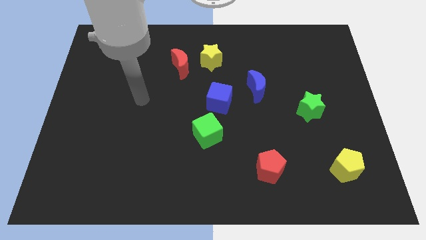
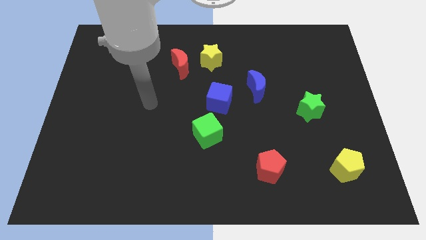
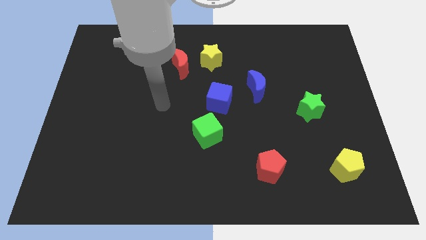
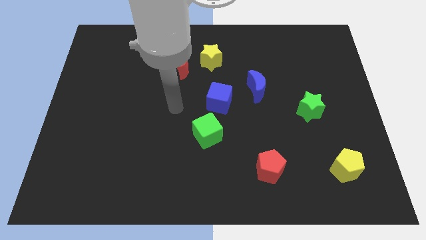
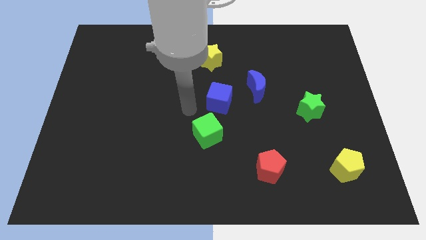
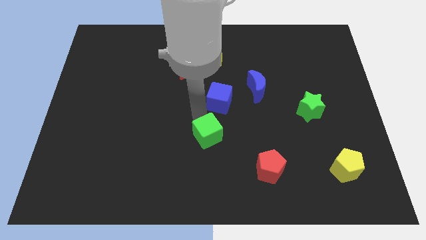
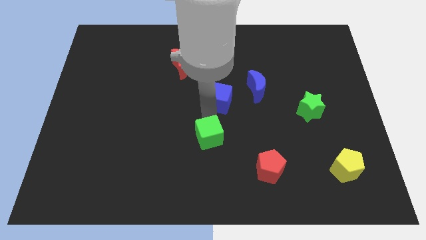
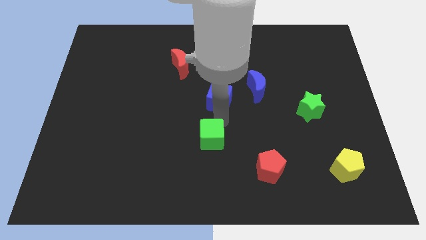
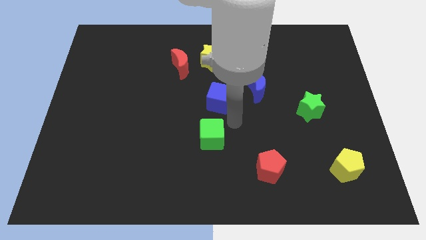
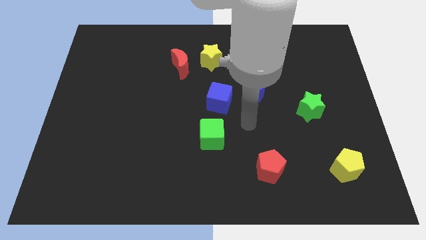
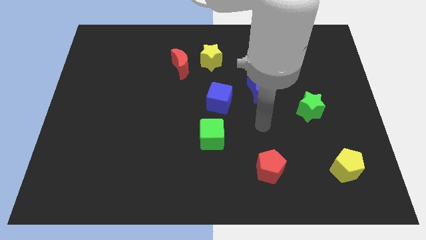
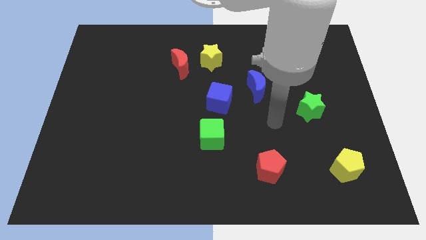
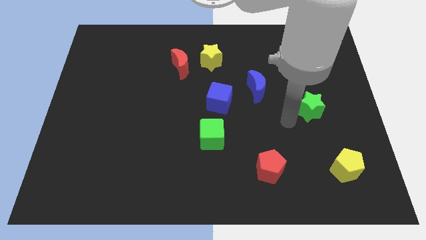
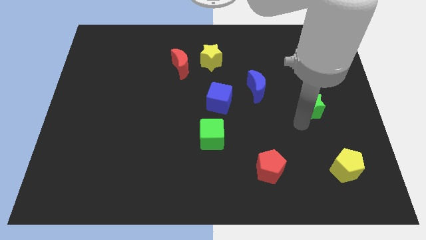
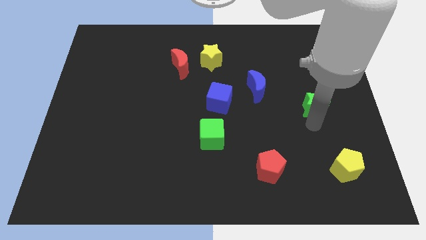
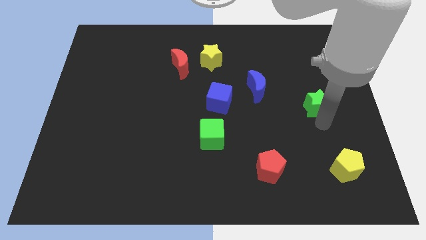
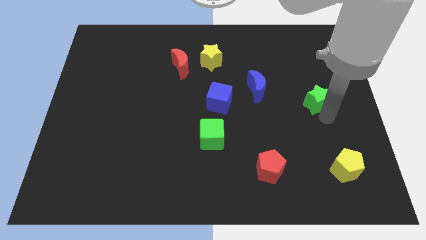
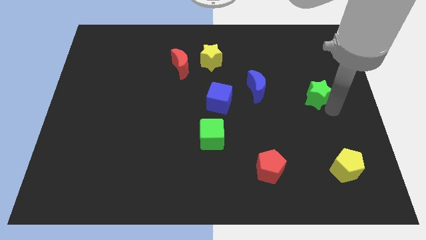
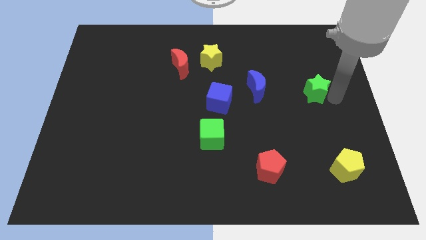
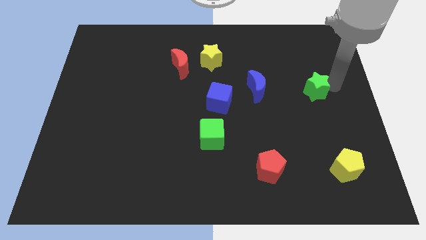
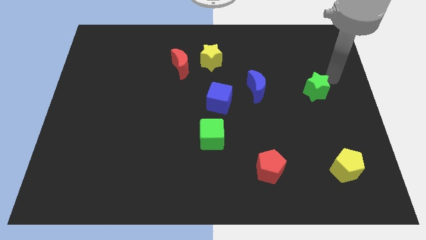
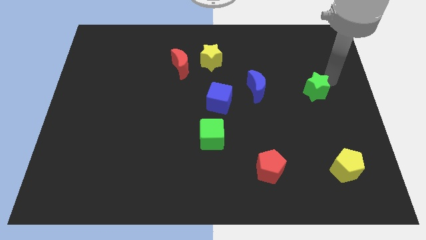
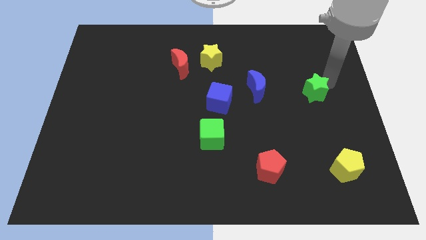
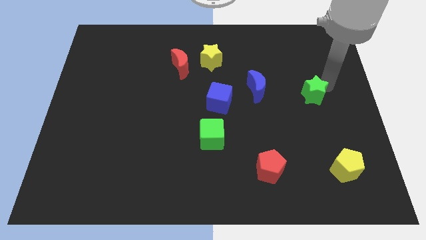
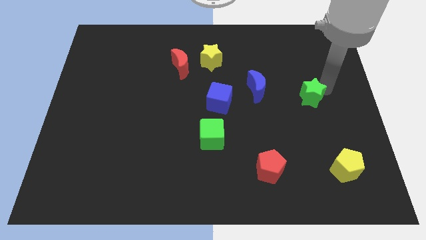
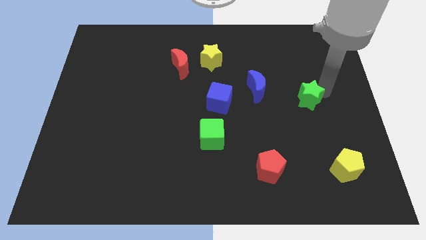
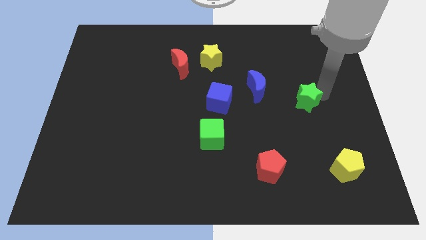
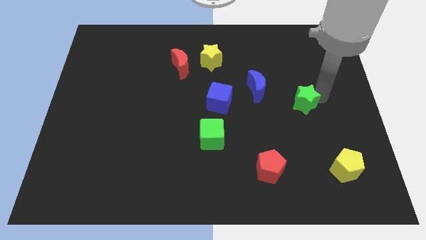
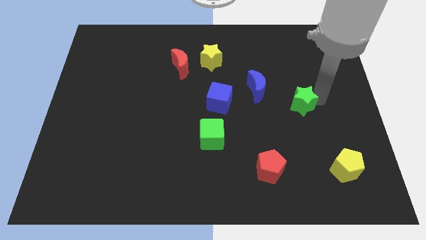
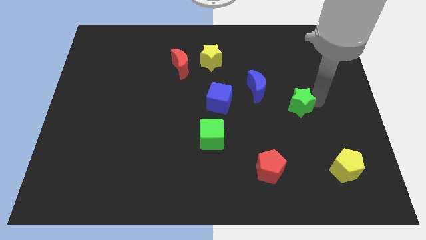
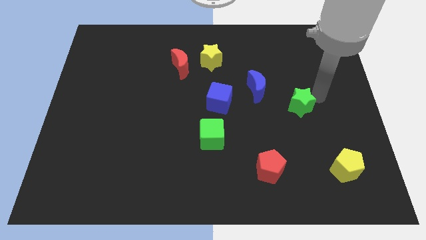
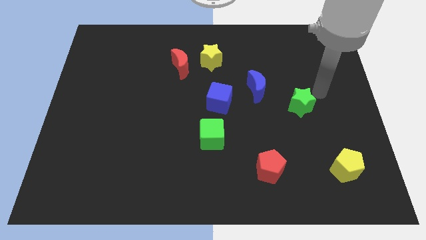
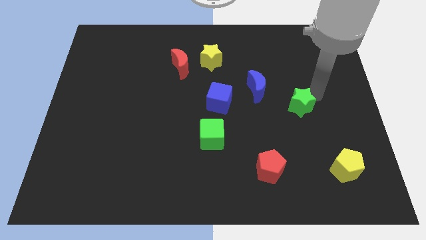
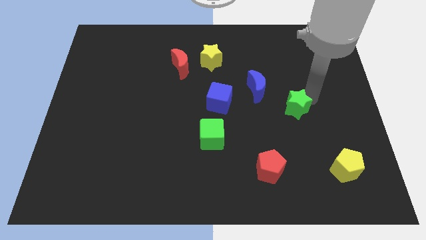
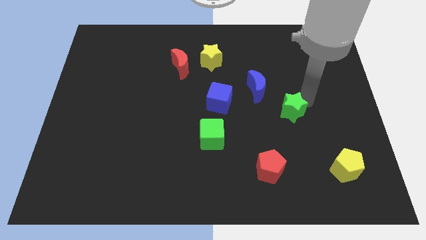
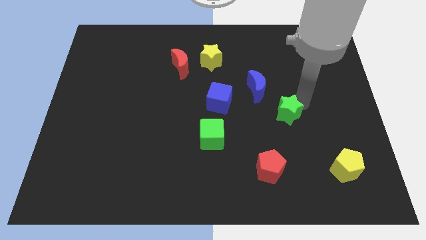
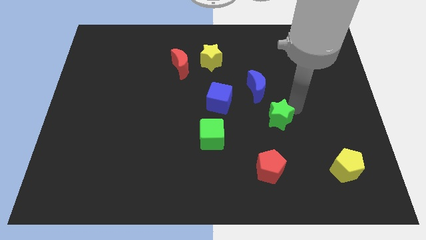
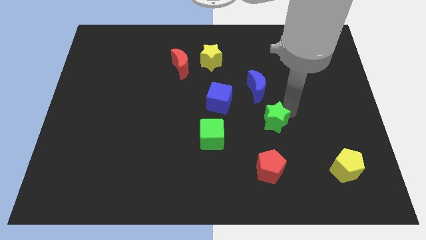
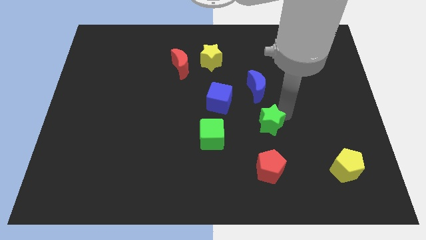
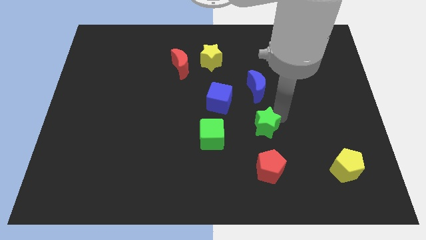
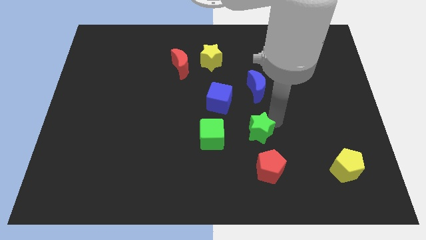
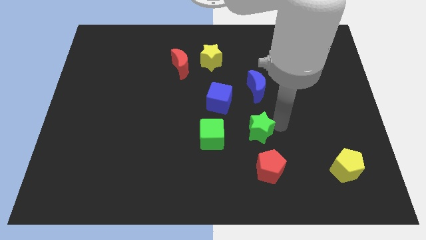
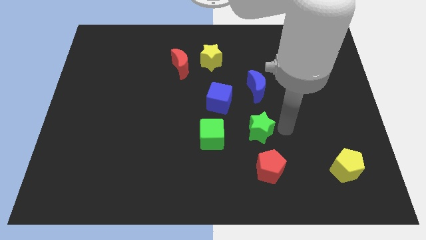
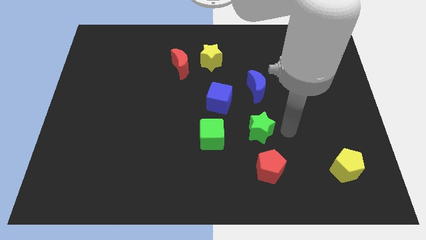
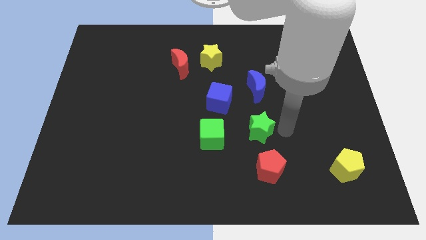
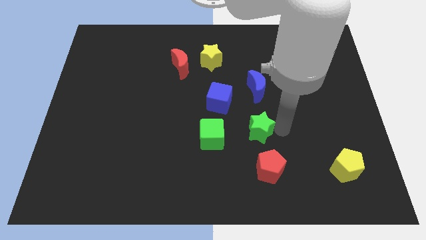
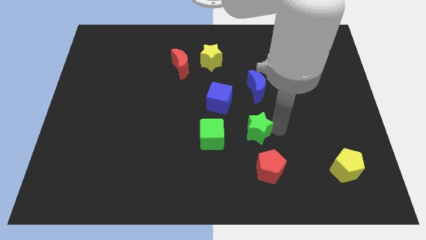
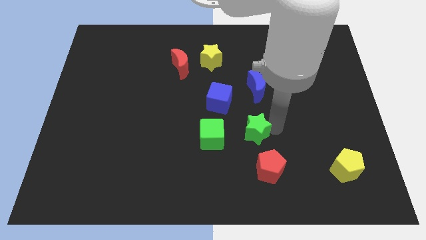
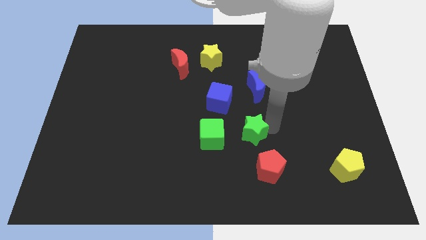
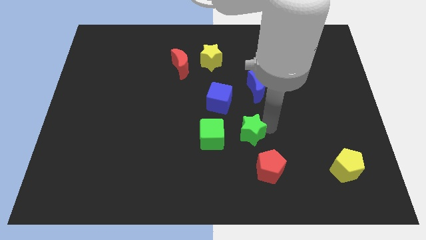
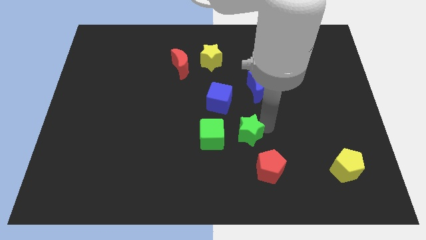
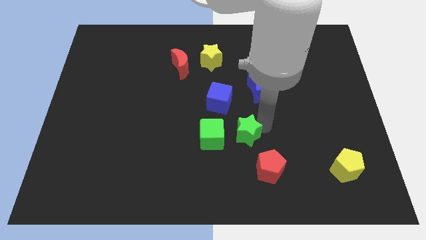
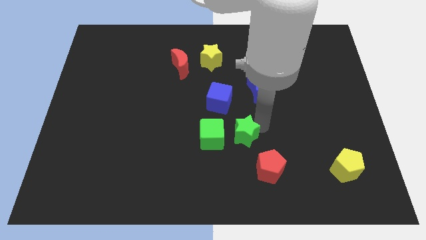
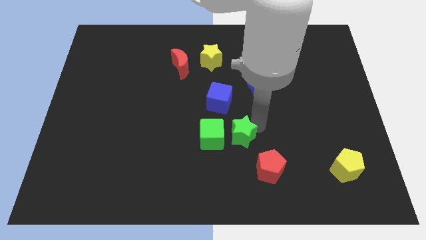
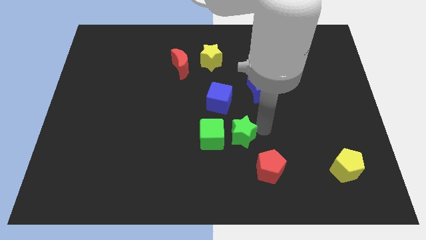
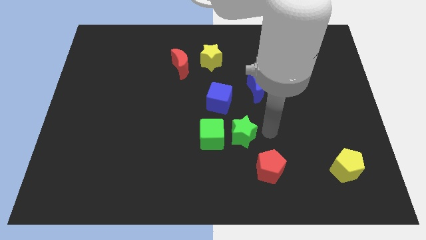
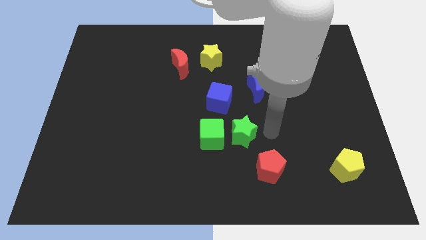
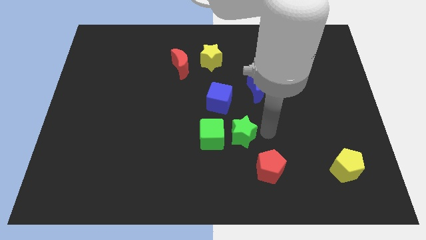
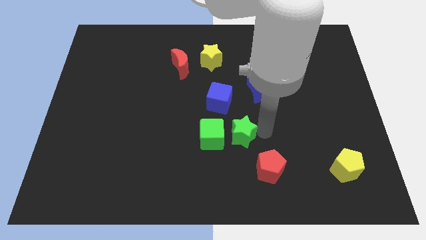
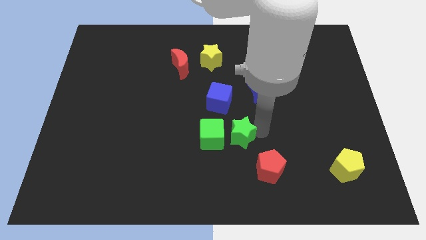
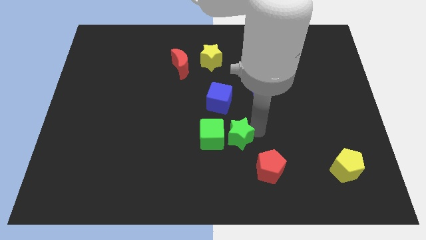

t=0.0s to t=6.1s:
put the green star to the green cube

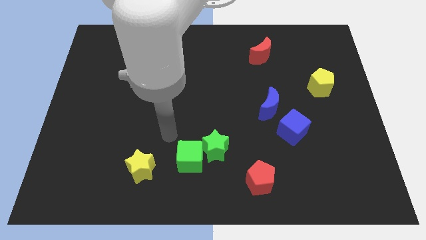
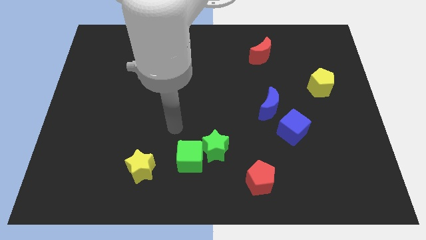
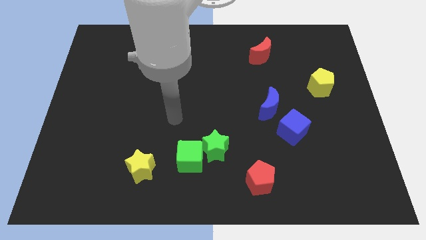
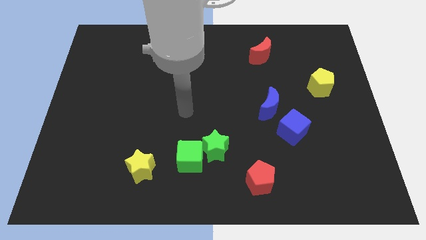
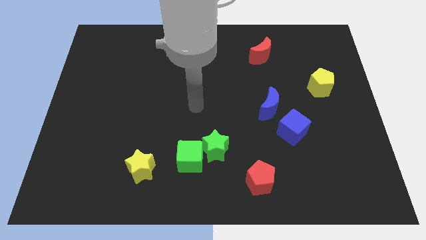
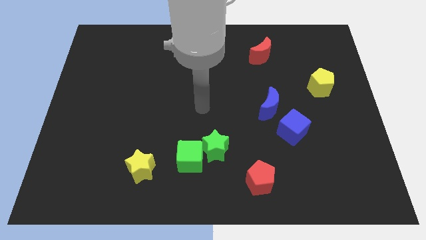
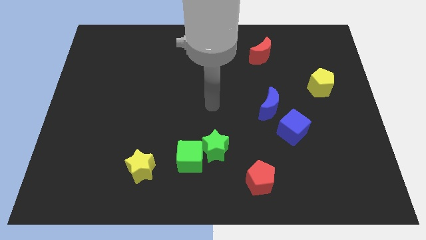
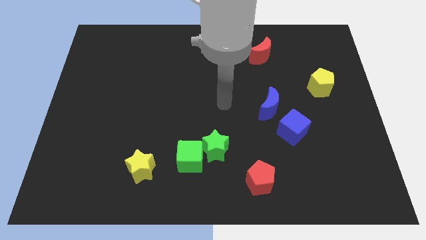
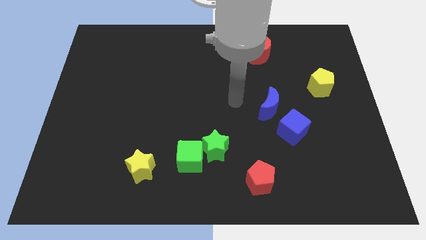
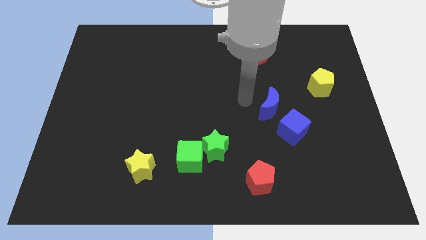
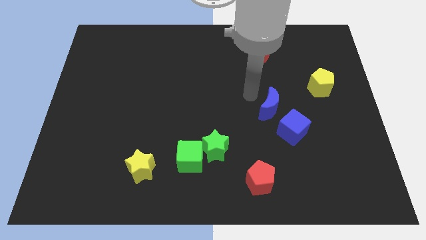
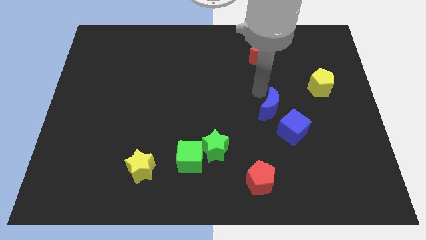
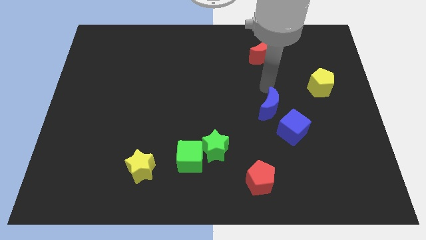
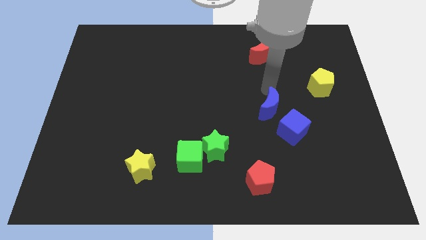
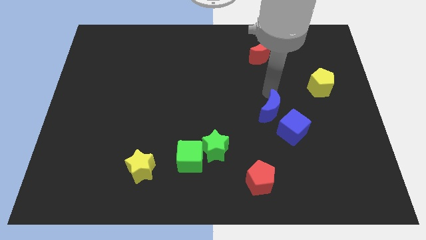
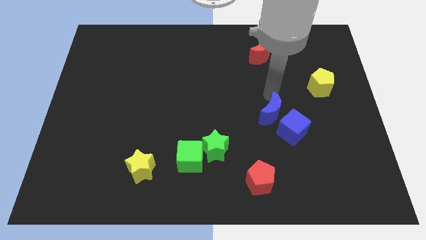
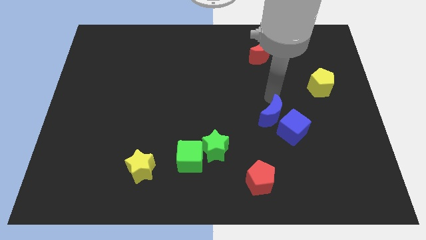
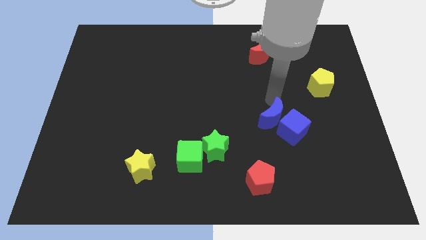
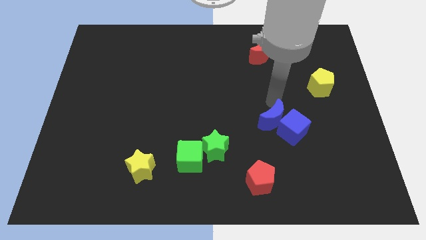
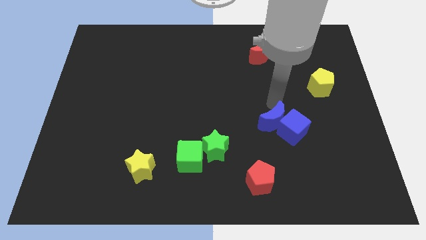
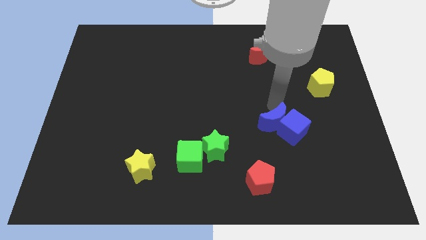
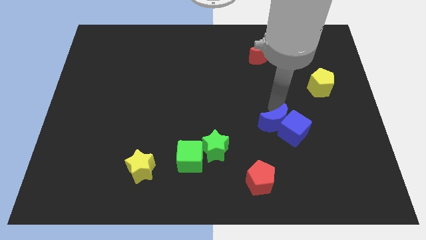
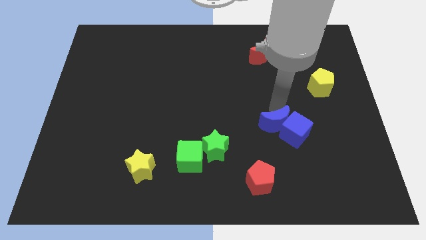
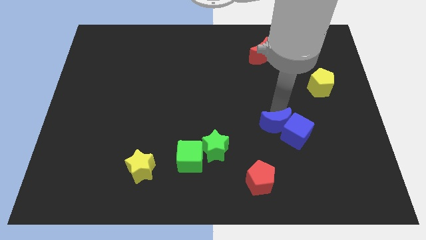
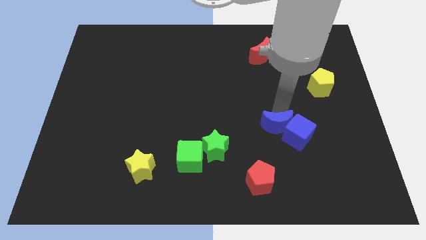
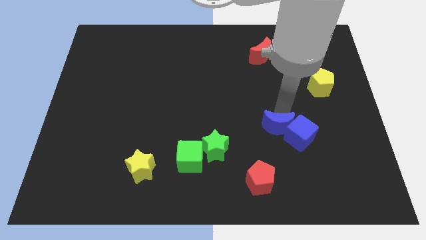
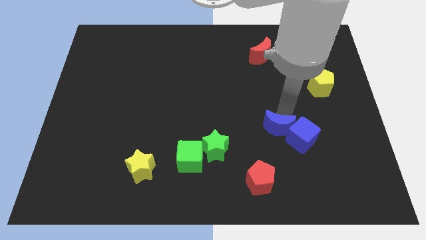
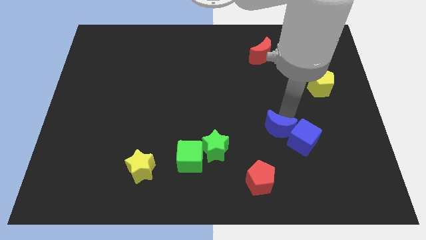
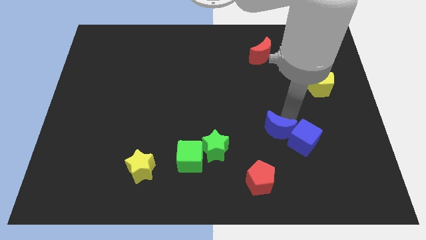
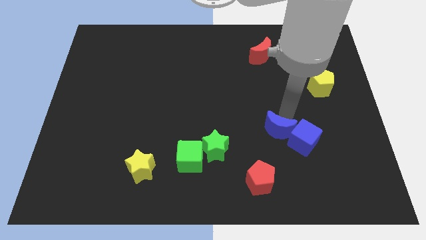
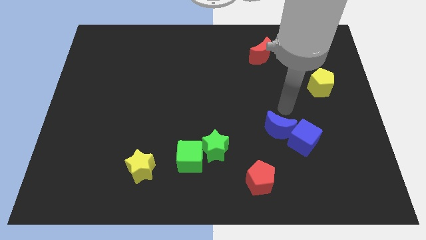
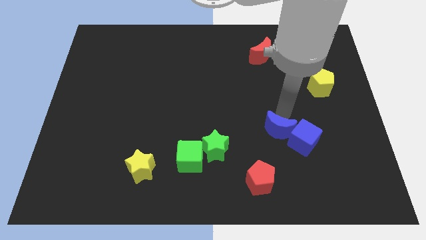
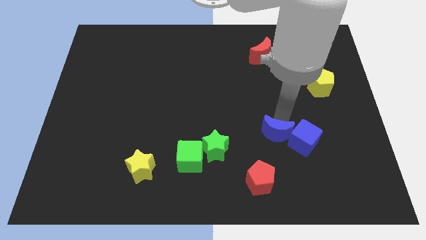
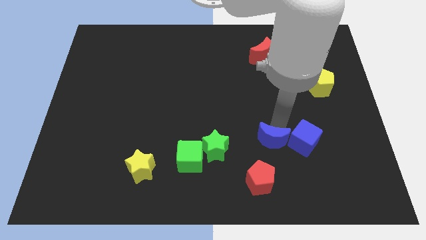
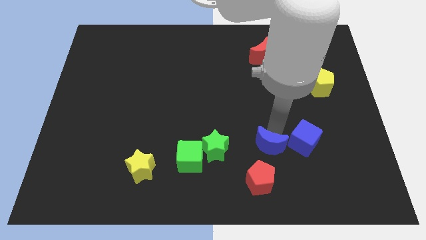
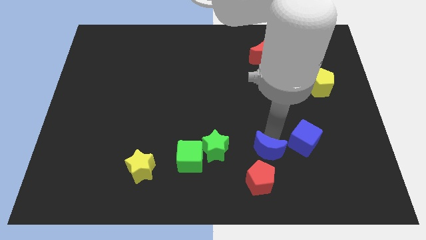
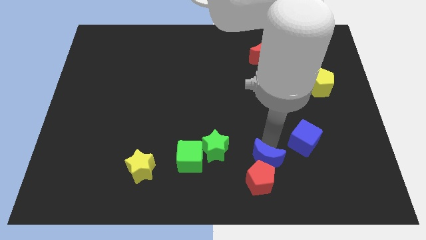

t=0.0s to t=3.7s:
put the blue moon to the red pentagon
